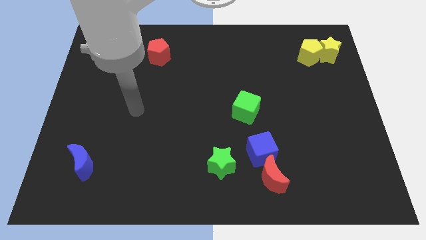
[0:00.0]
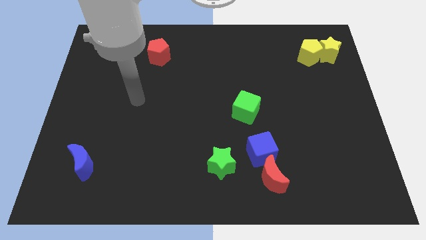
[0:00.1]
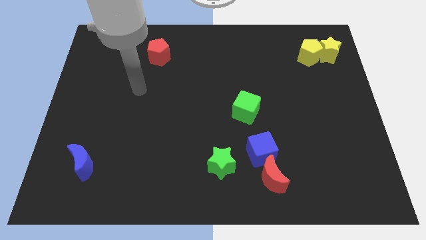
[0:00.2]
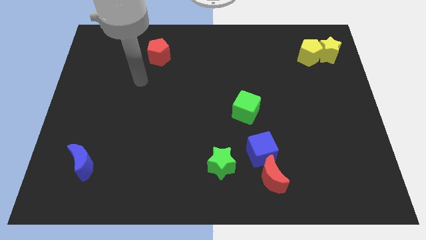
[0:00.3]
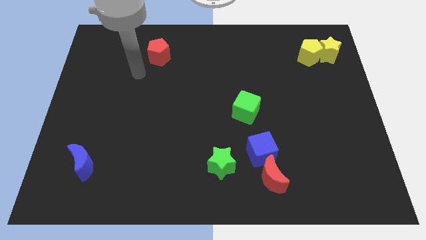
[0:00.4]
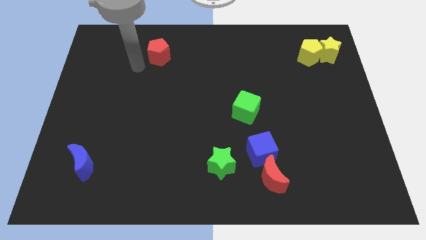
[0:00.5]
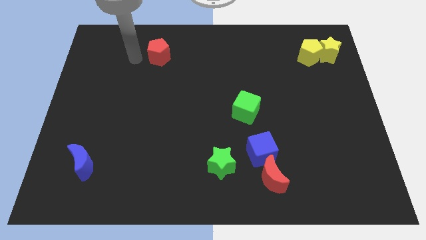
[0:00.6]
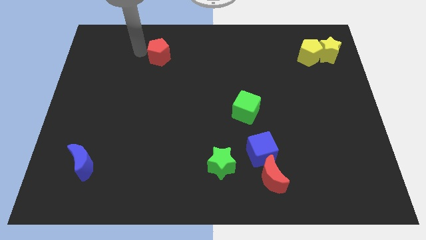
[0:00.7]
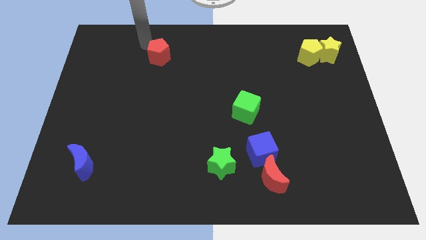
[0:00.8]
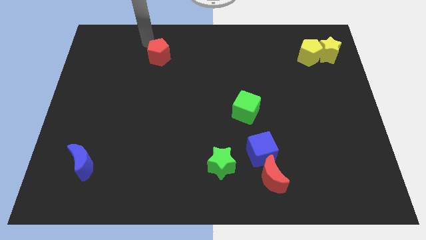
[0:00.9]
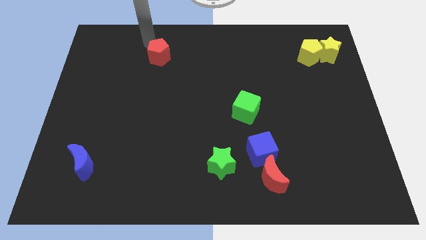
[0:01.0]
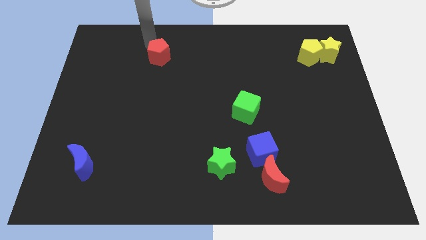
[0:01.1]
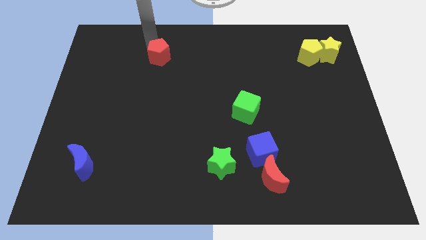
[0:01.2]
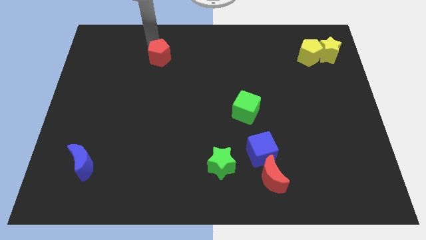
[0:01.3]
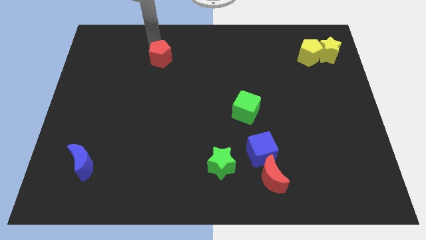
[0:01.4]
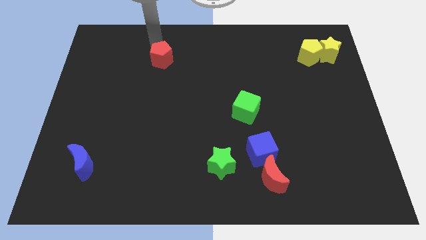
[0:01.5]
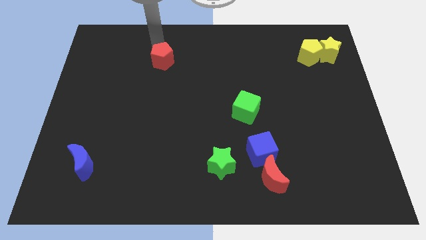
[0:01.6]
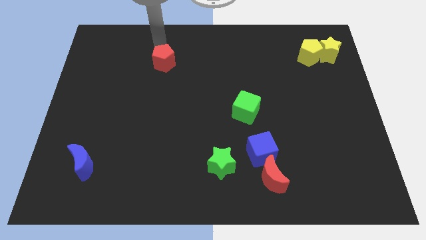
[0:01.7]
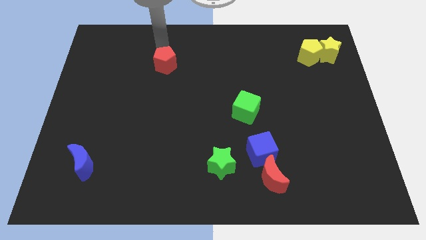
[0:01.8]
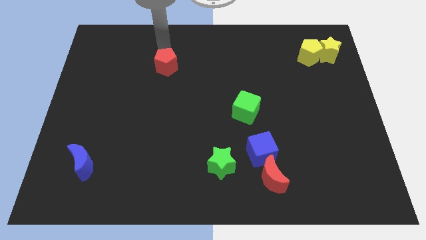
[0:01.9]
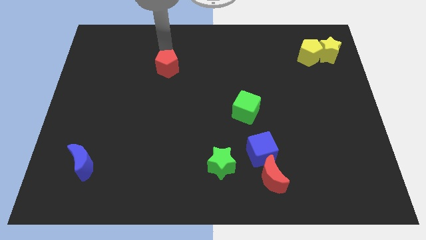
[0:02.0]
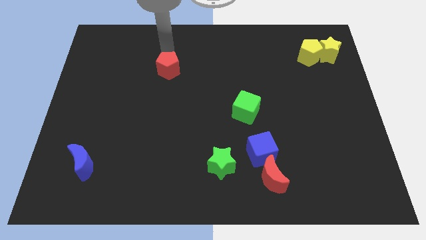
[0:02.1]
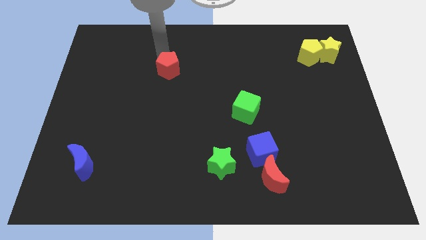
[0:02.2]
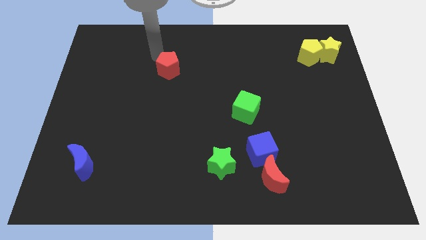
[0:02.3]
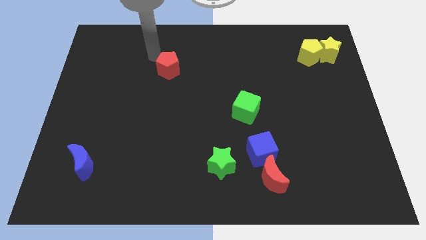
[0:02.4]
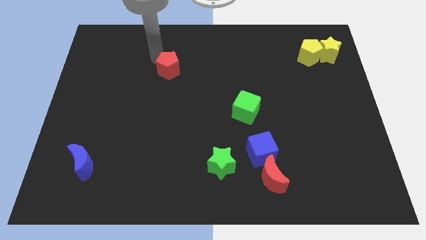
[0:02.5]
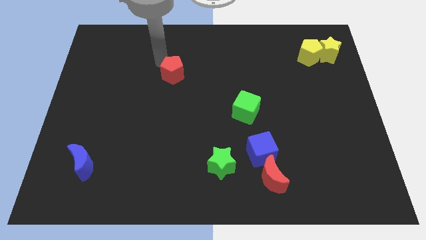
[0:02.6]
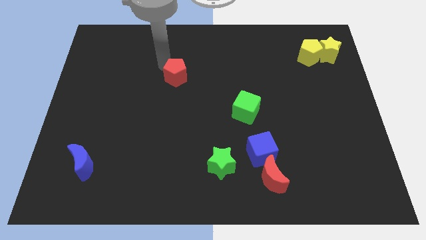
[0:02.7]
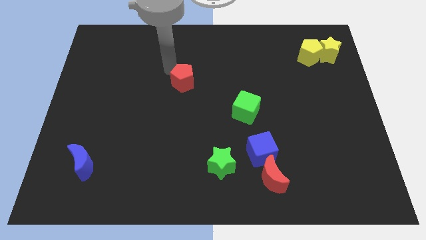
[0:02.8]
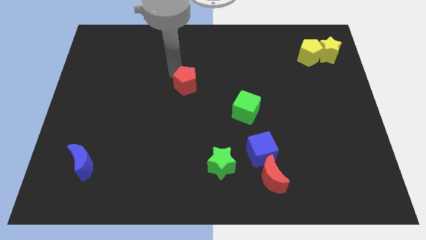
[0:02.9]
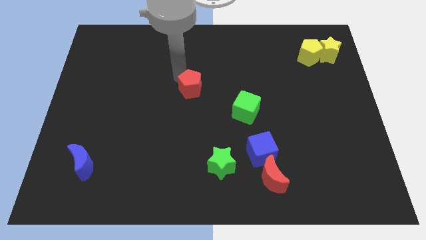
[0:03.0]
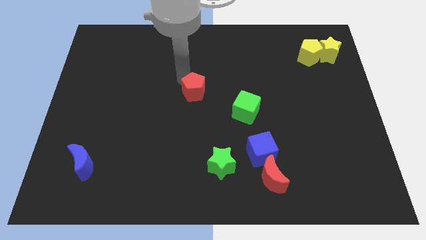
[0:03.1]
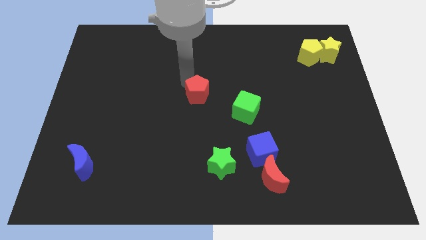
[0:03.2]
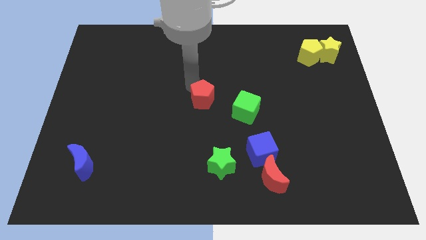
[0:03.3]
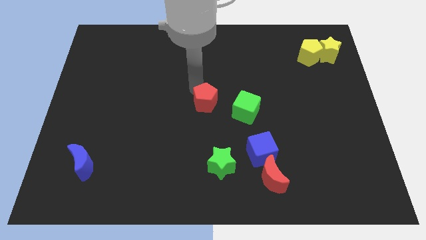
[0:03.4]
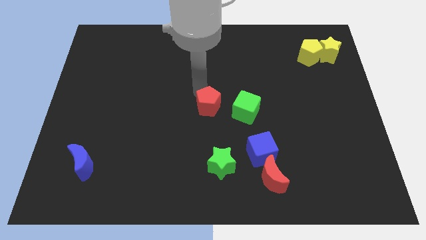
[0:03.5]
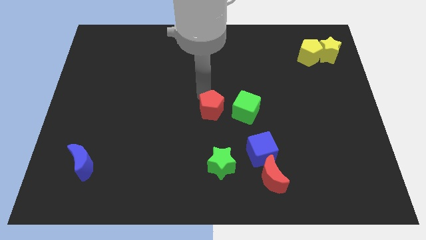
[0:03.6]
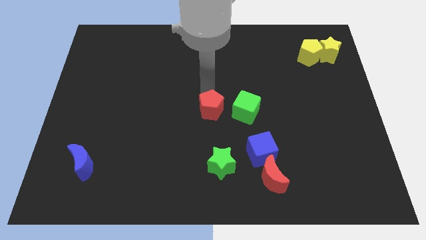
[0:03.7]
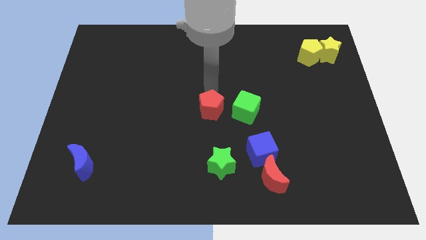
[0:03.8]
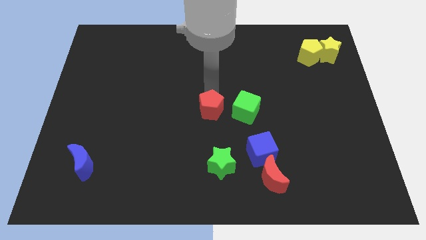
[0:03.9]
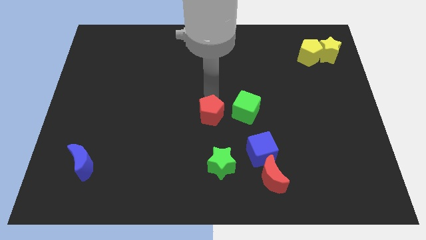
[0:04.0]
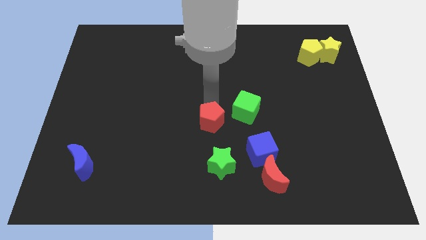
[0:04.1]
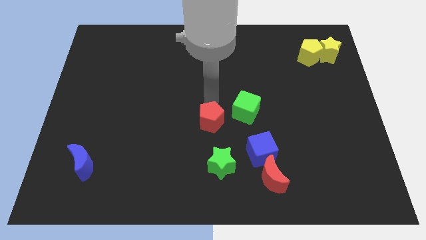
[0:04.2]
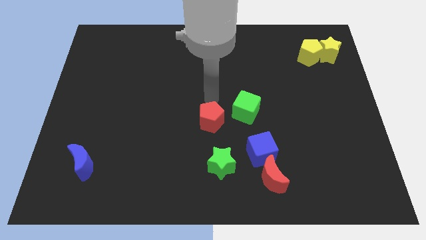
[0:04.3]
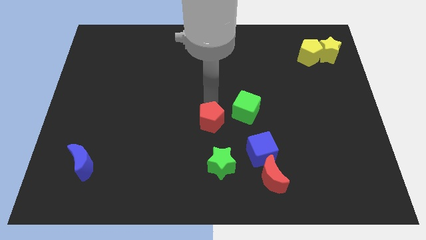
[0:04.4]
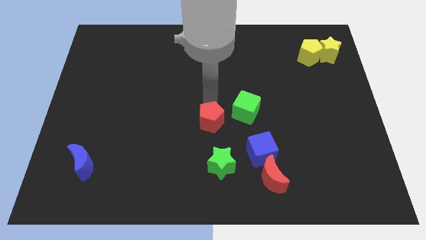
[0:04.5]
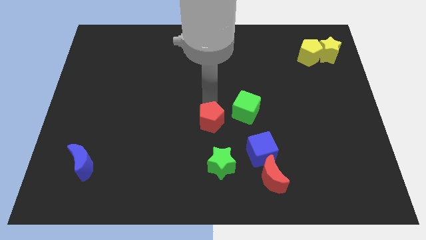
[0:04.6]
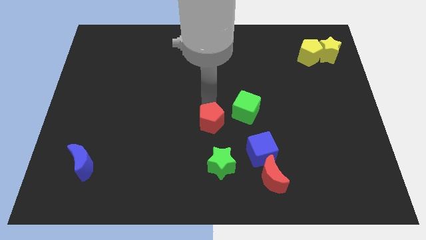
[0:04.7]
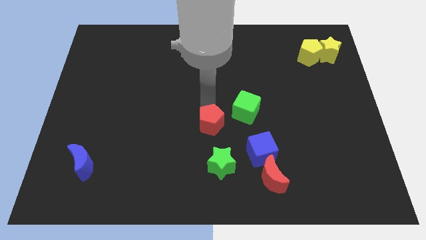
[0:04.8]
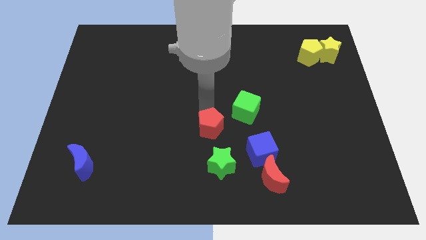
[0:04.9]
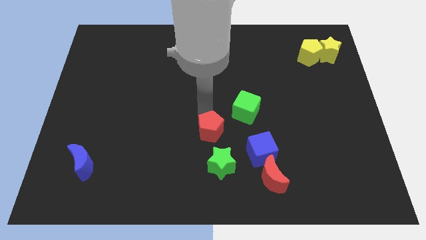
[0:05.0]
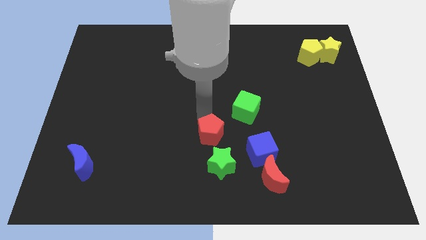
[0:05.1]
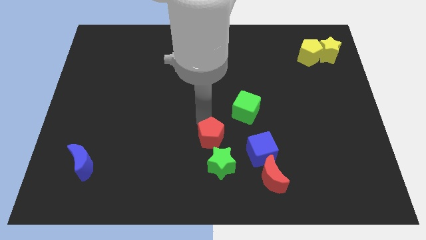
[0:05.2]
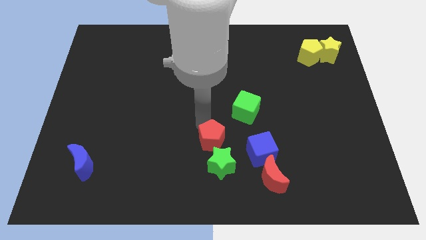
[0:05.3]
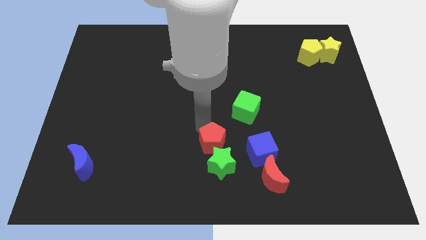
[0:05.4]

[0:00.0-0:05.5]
push the red pentagon close to the green star
